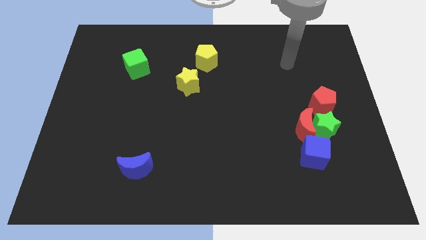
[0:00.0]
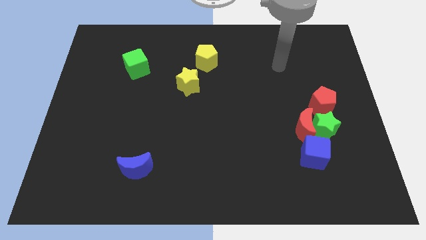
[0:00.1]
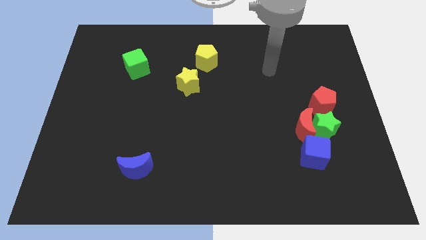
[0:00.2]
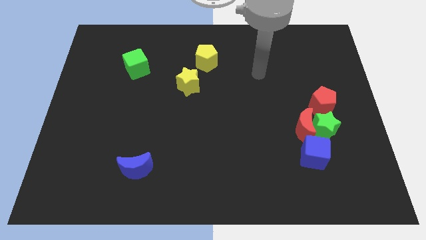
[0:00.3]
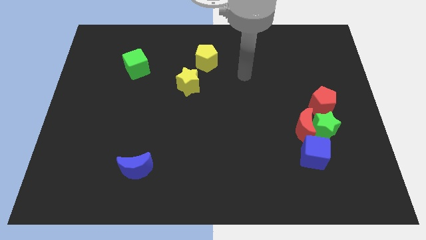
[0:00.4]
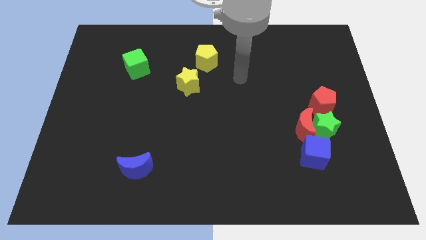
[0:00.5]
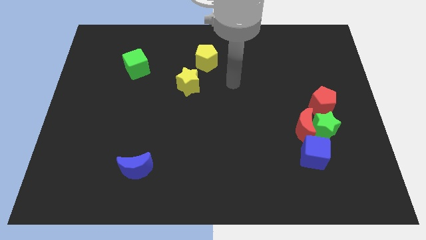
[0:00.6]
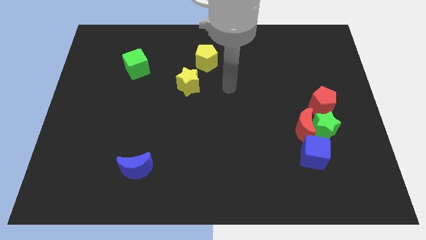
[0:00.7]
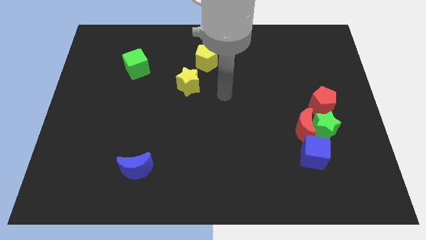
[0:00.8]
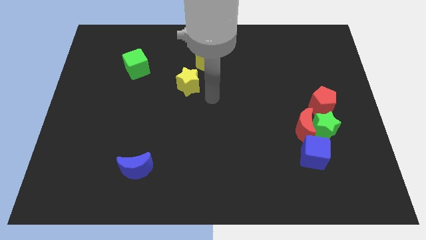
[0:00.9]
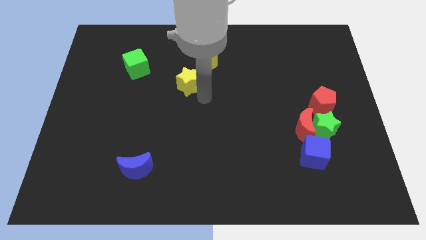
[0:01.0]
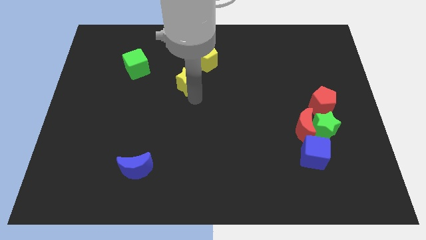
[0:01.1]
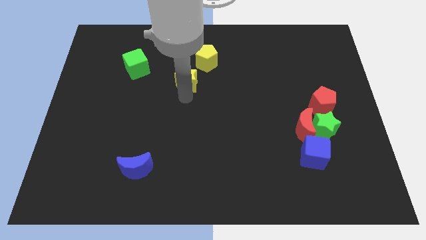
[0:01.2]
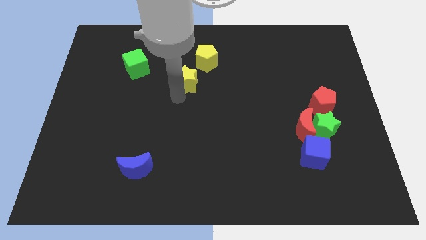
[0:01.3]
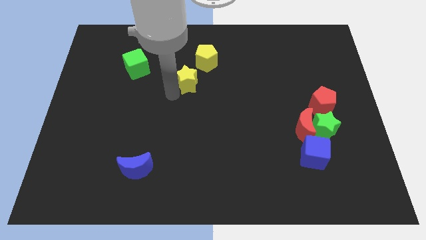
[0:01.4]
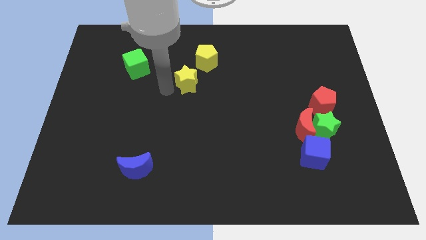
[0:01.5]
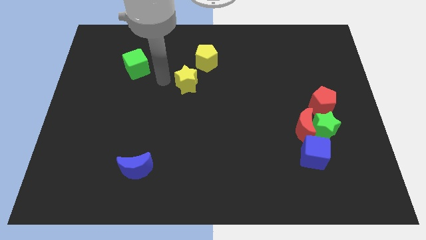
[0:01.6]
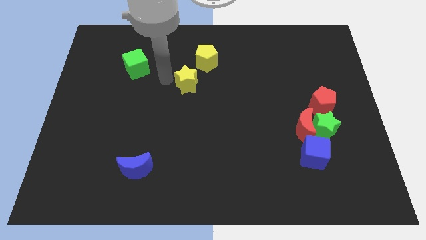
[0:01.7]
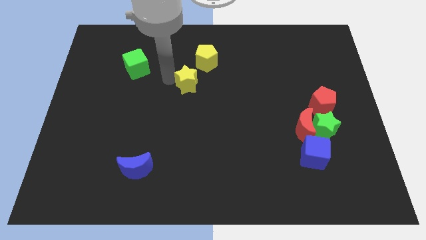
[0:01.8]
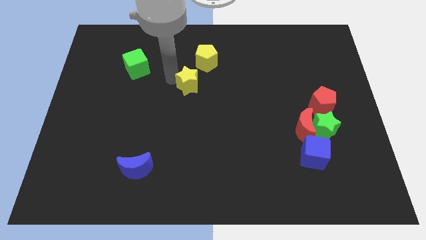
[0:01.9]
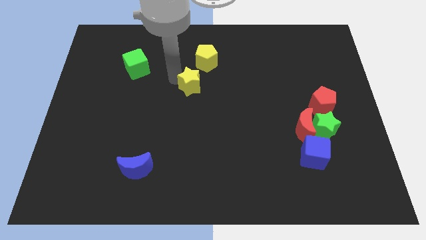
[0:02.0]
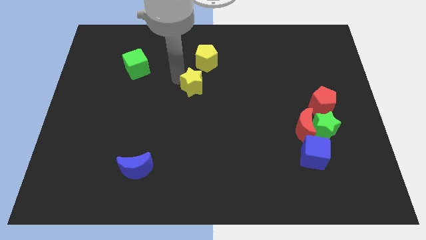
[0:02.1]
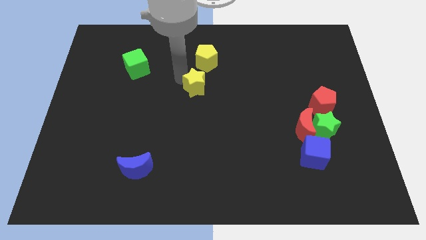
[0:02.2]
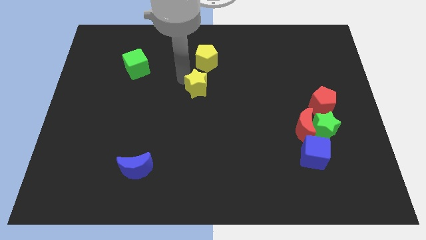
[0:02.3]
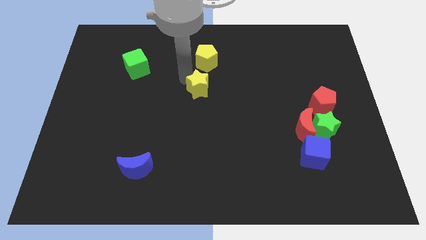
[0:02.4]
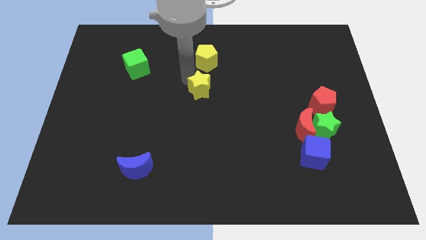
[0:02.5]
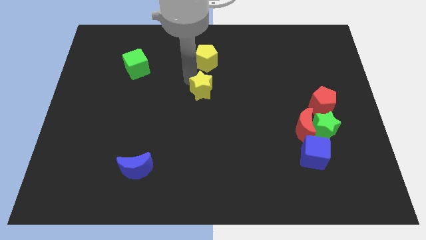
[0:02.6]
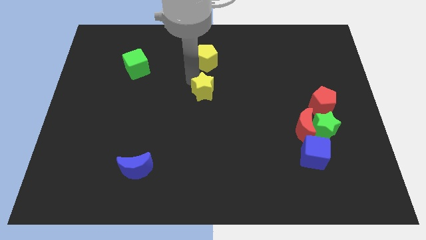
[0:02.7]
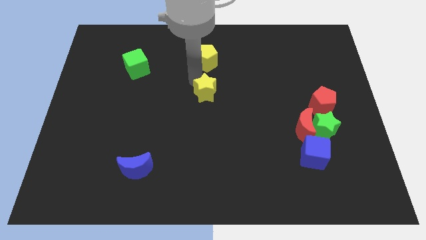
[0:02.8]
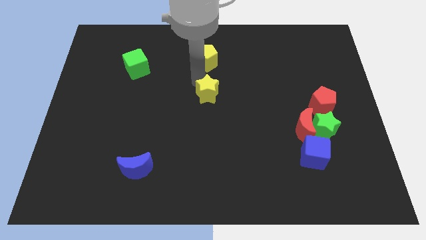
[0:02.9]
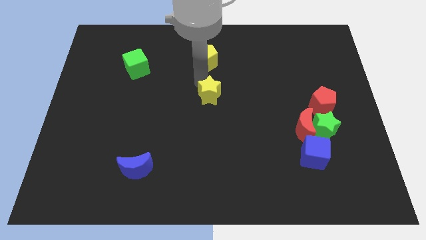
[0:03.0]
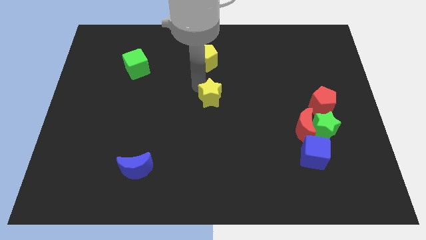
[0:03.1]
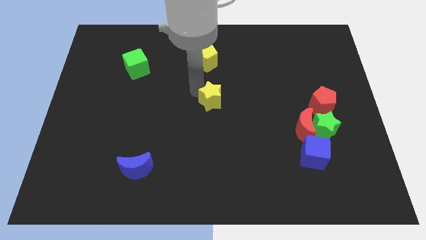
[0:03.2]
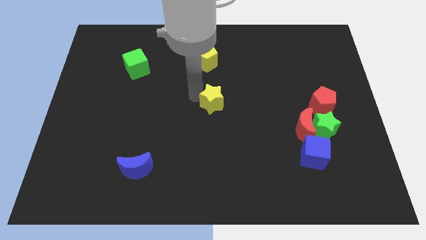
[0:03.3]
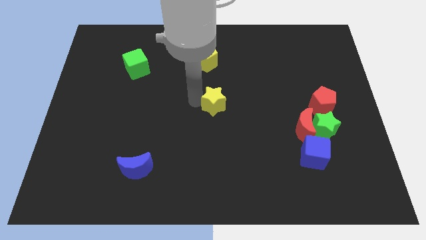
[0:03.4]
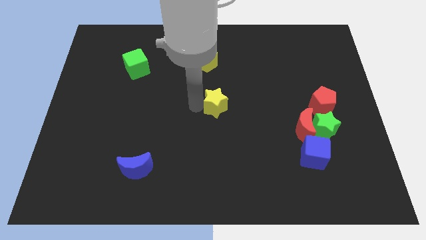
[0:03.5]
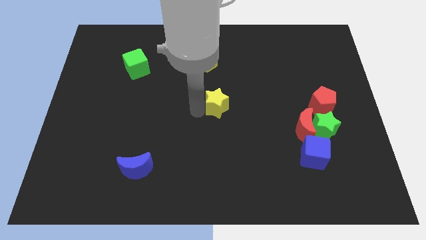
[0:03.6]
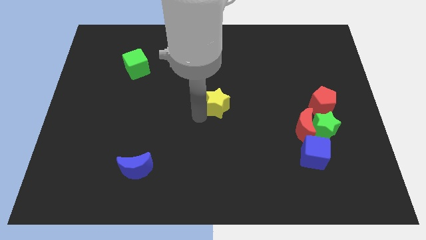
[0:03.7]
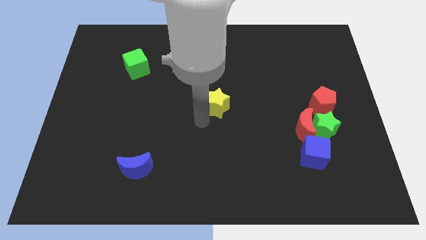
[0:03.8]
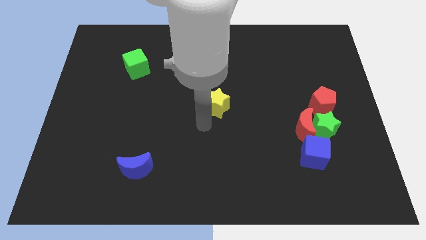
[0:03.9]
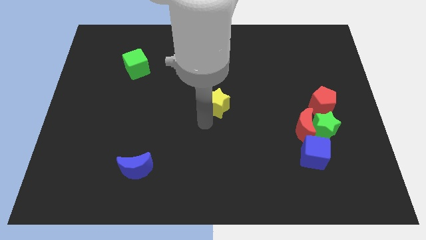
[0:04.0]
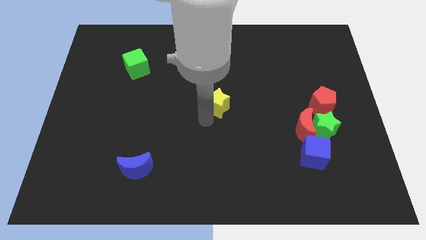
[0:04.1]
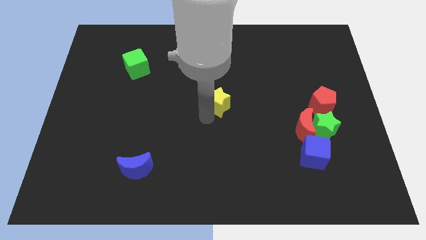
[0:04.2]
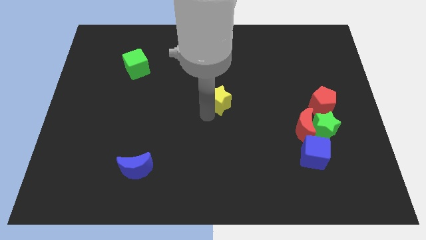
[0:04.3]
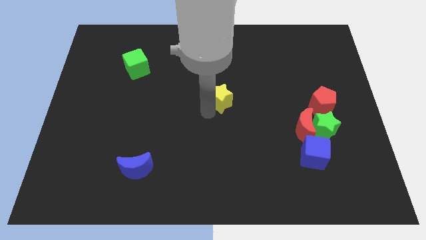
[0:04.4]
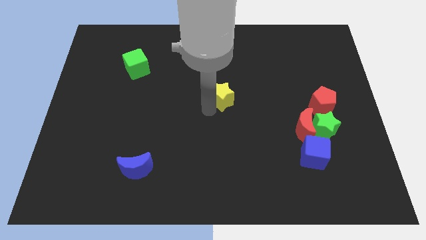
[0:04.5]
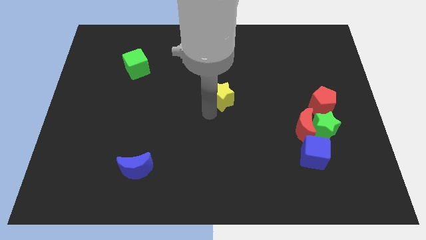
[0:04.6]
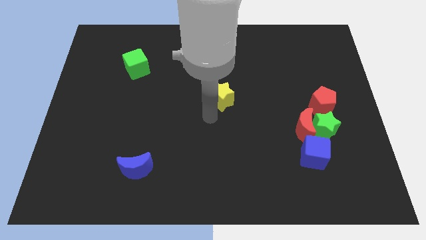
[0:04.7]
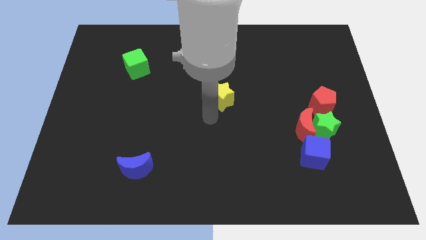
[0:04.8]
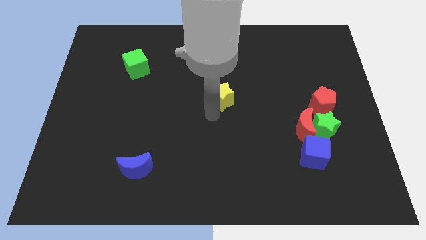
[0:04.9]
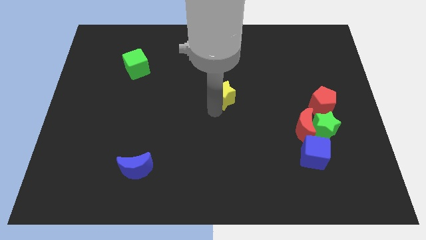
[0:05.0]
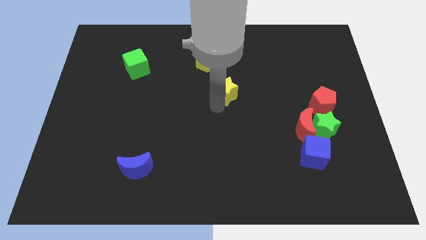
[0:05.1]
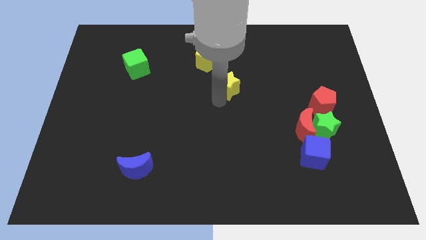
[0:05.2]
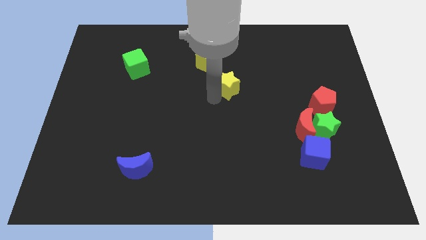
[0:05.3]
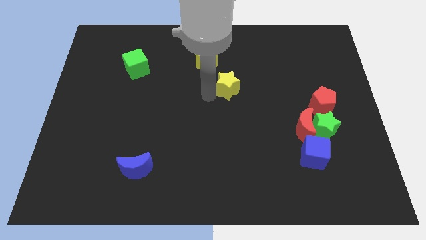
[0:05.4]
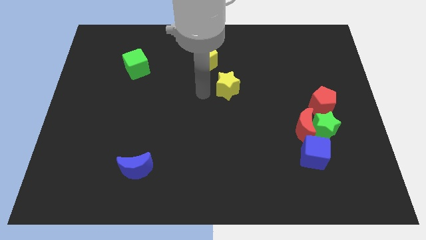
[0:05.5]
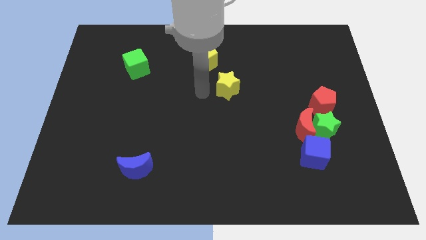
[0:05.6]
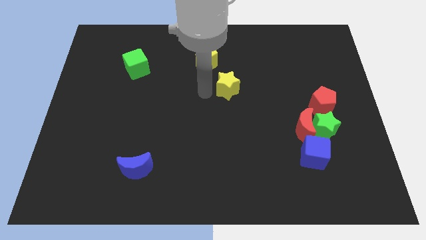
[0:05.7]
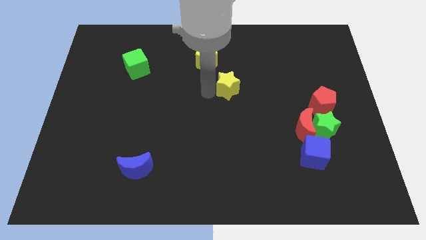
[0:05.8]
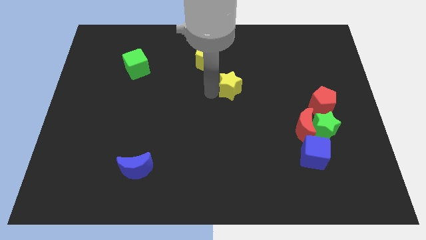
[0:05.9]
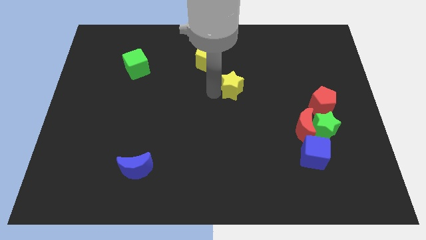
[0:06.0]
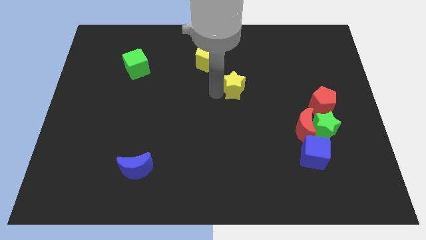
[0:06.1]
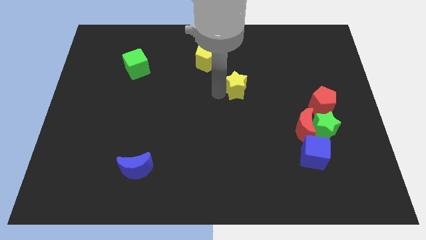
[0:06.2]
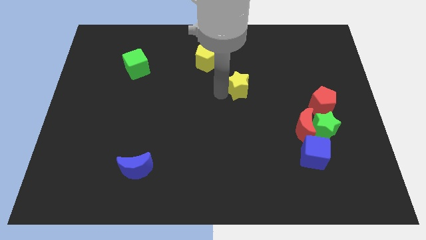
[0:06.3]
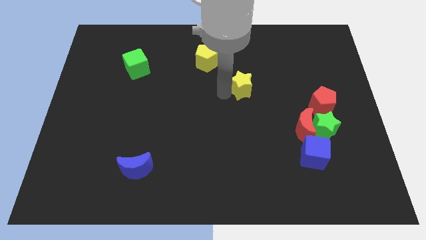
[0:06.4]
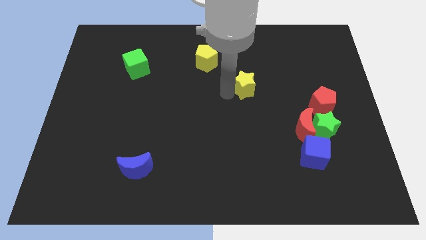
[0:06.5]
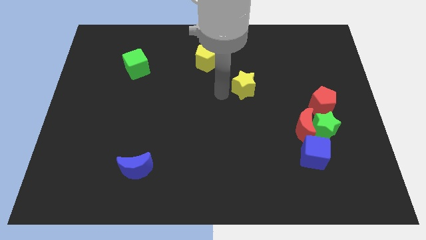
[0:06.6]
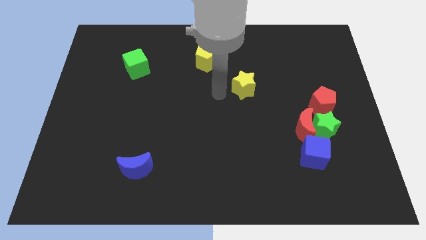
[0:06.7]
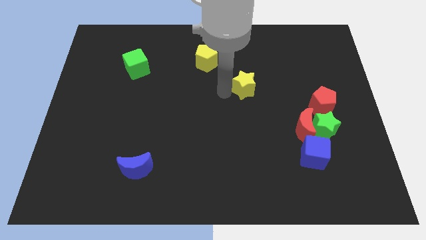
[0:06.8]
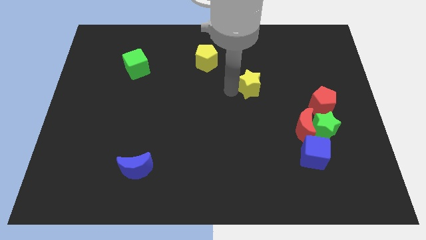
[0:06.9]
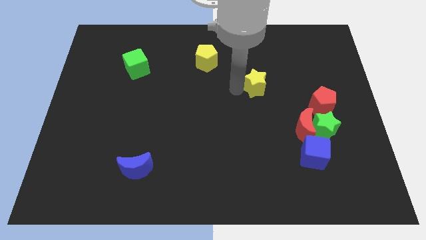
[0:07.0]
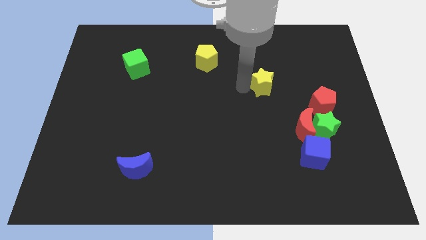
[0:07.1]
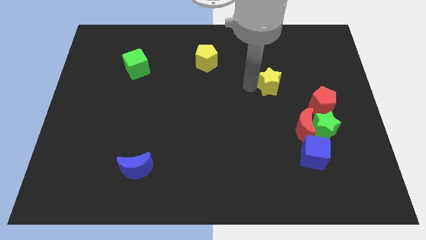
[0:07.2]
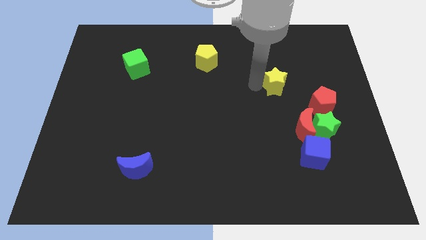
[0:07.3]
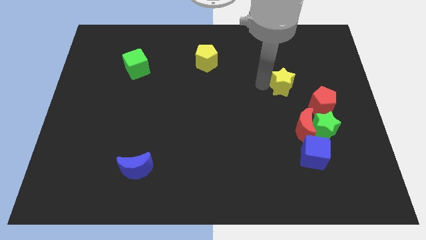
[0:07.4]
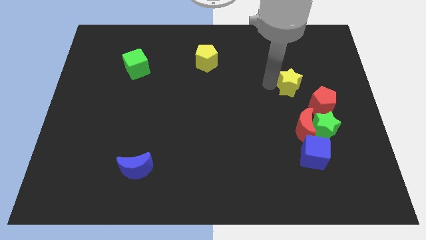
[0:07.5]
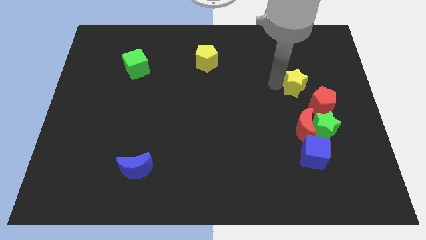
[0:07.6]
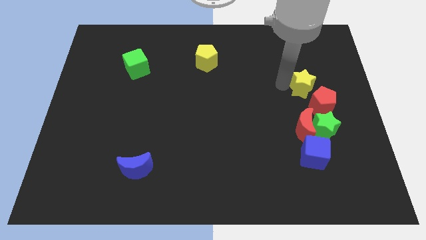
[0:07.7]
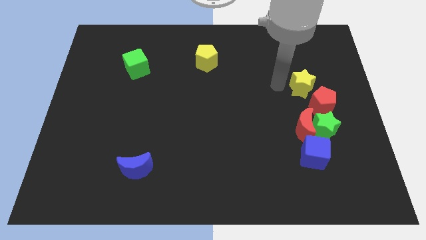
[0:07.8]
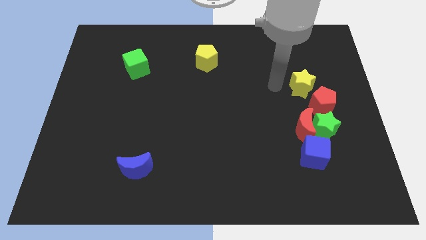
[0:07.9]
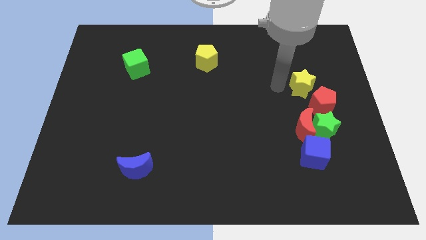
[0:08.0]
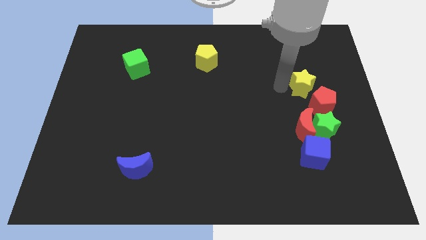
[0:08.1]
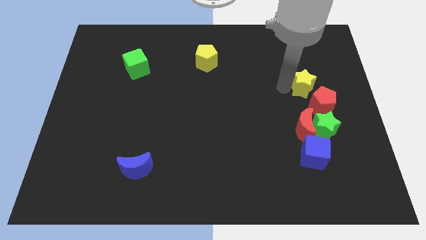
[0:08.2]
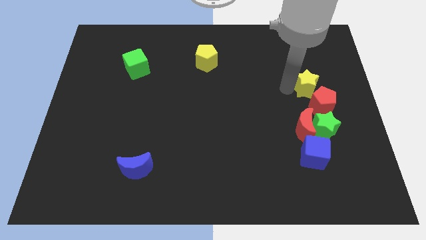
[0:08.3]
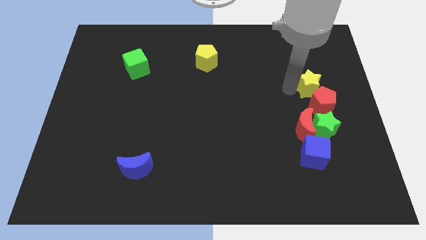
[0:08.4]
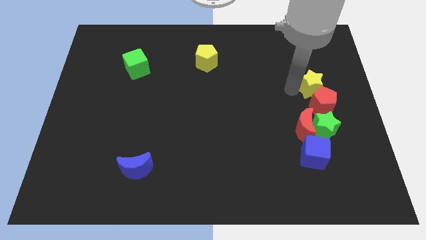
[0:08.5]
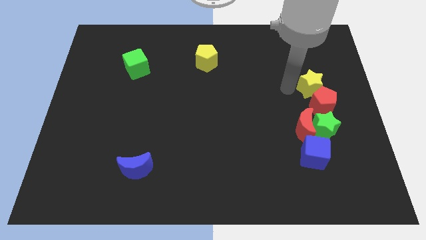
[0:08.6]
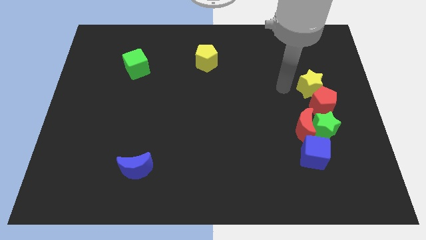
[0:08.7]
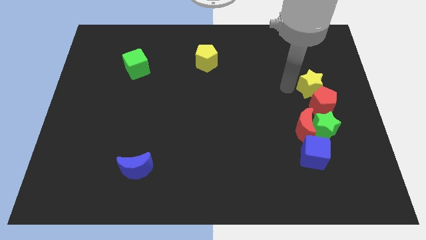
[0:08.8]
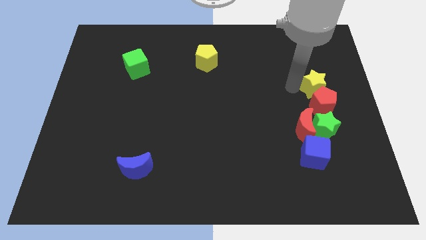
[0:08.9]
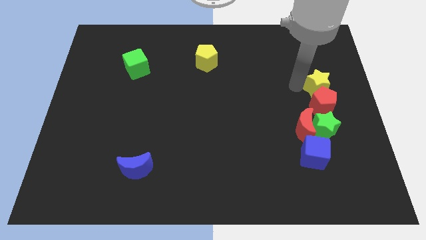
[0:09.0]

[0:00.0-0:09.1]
push the yellow star to the center right
